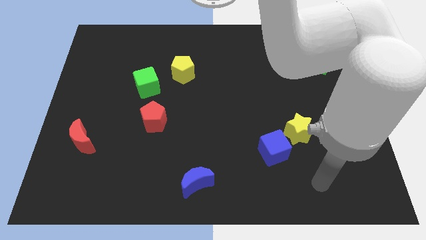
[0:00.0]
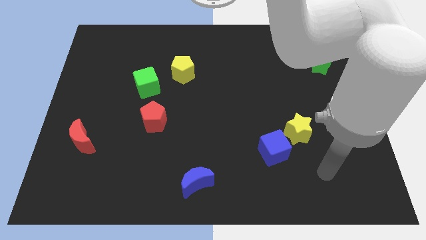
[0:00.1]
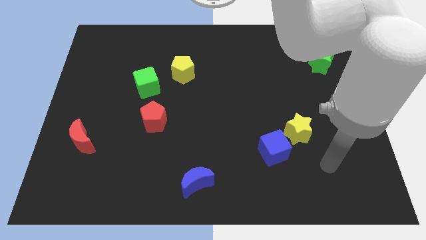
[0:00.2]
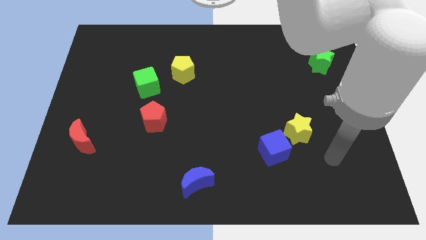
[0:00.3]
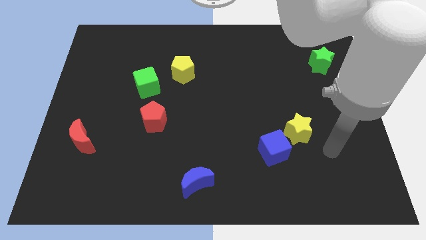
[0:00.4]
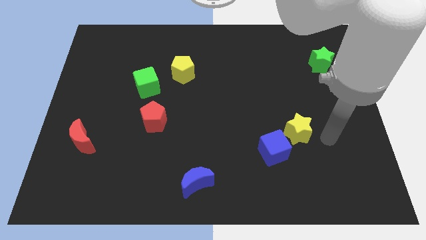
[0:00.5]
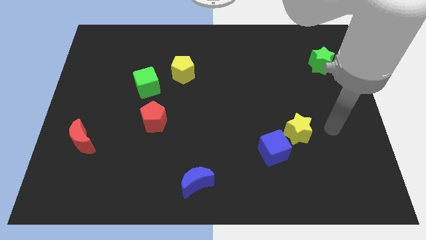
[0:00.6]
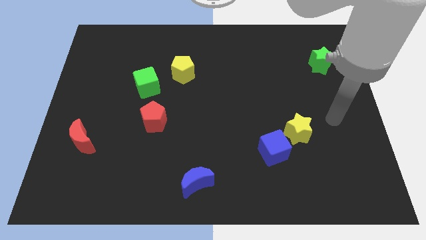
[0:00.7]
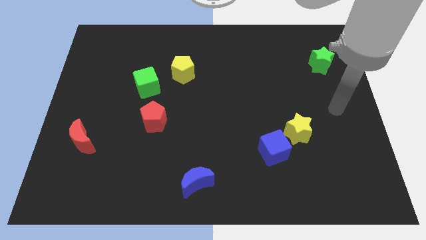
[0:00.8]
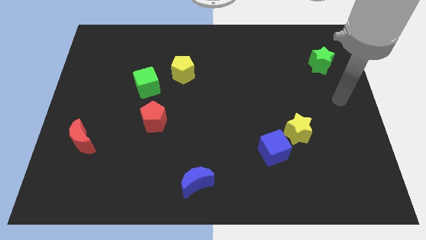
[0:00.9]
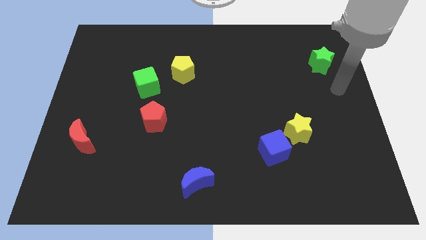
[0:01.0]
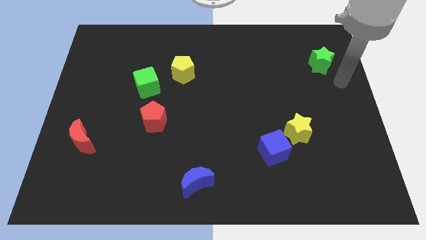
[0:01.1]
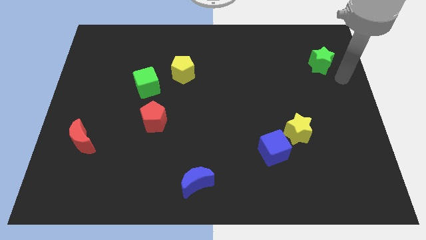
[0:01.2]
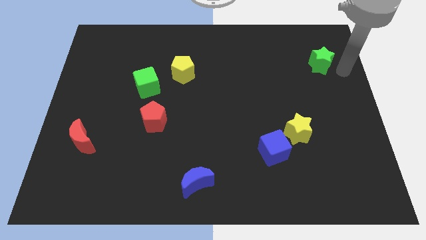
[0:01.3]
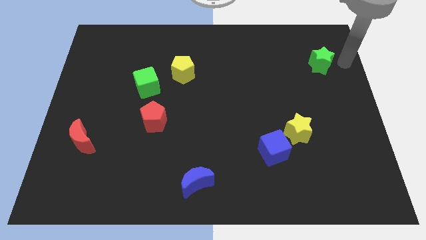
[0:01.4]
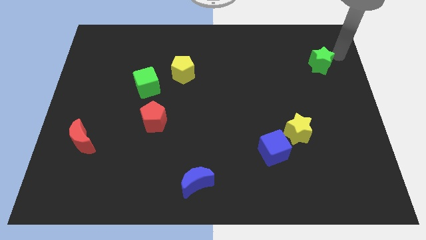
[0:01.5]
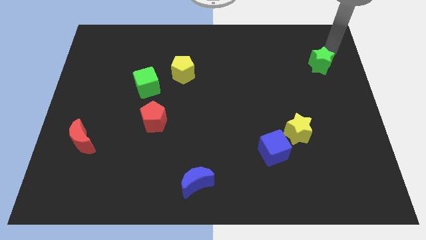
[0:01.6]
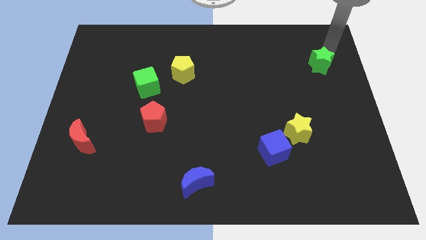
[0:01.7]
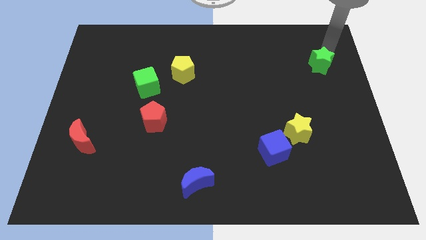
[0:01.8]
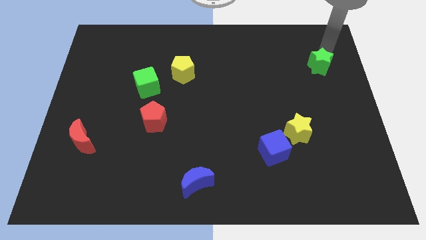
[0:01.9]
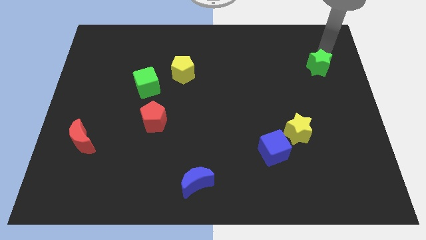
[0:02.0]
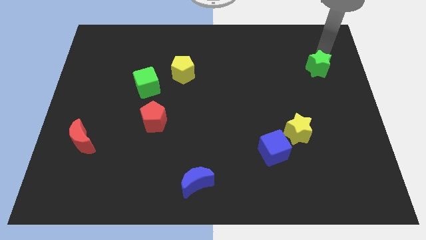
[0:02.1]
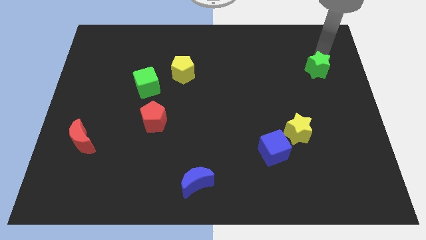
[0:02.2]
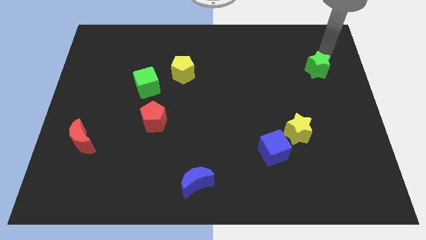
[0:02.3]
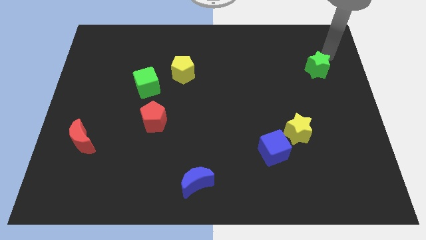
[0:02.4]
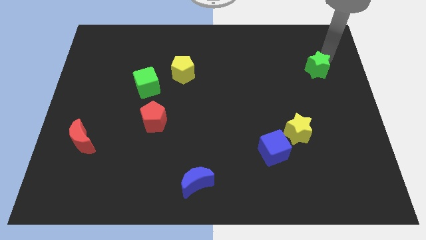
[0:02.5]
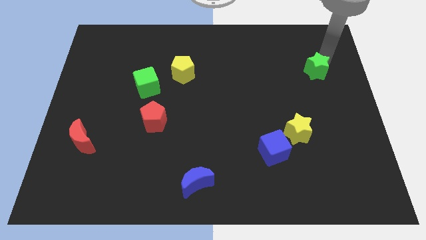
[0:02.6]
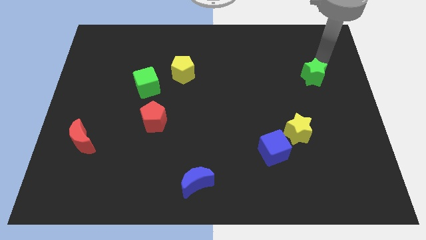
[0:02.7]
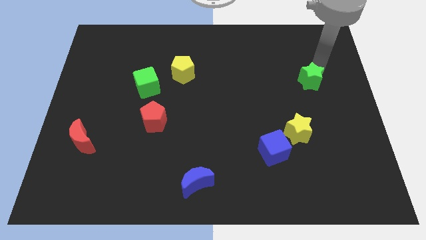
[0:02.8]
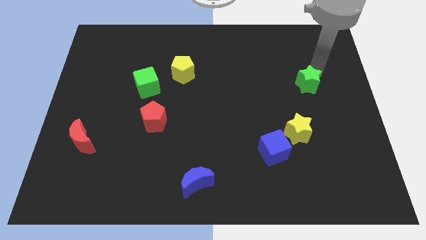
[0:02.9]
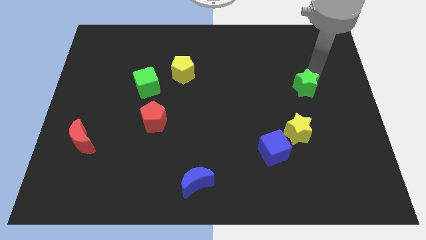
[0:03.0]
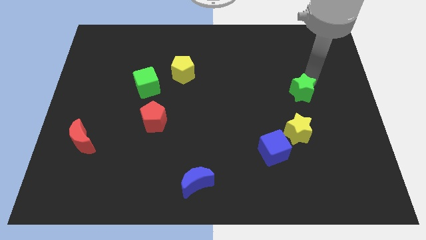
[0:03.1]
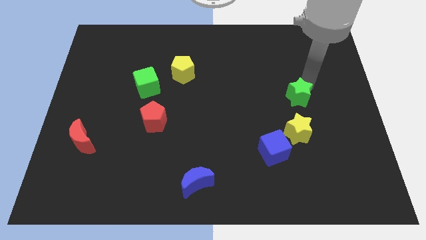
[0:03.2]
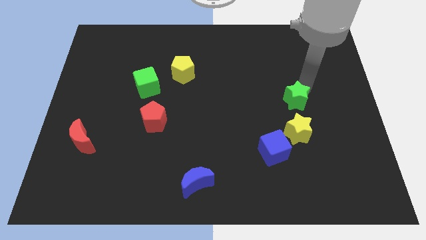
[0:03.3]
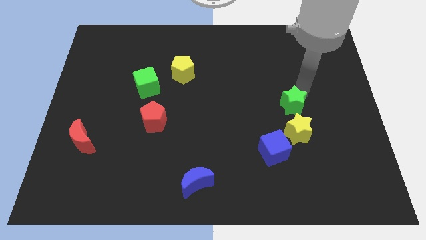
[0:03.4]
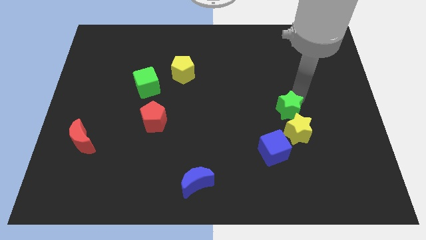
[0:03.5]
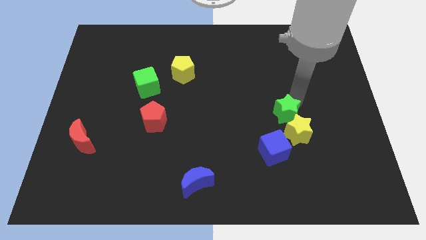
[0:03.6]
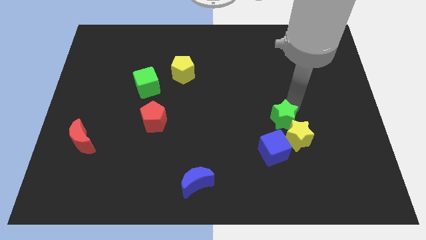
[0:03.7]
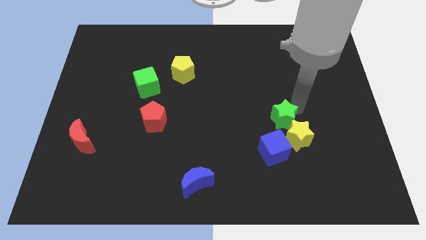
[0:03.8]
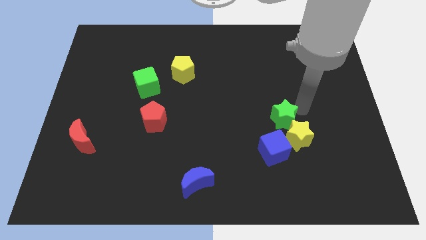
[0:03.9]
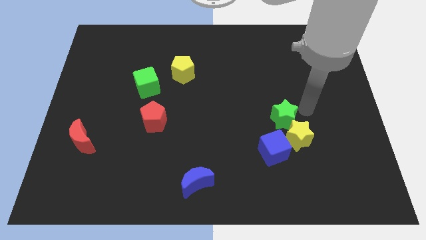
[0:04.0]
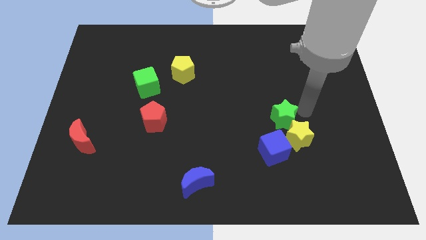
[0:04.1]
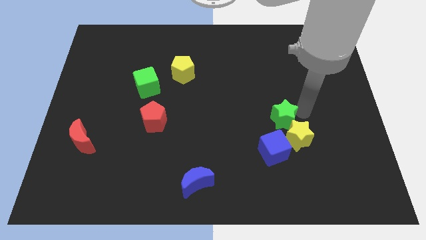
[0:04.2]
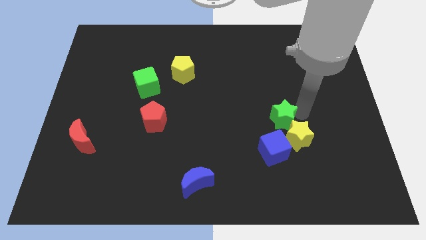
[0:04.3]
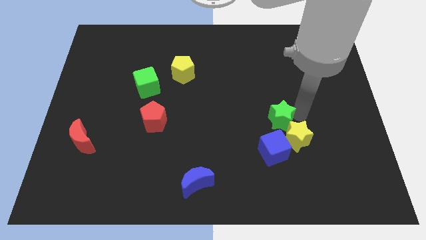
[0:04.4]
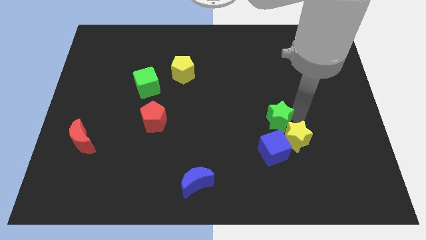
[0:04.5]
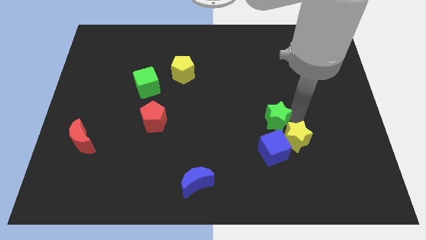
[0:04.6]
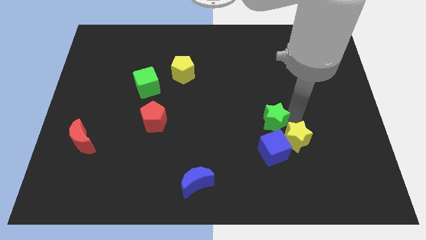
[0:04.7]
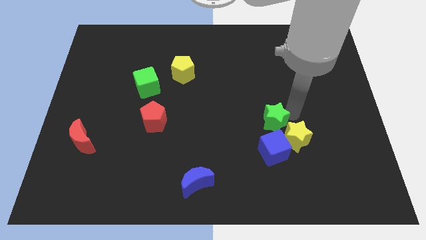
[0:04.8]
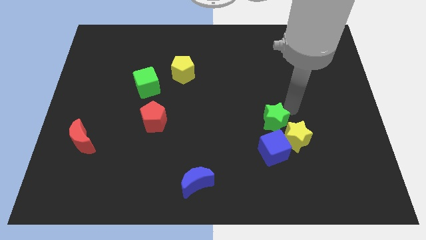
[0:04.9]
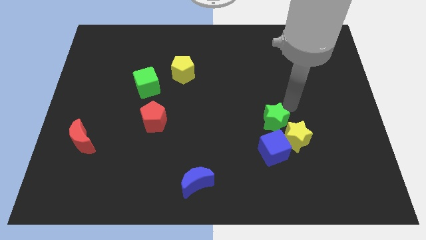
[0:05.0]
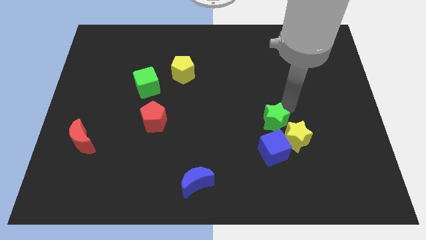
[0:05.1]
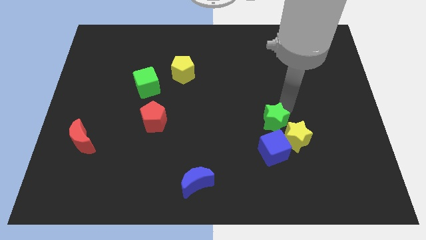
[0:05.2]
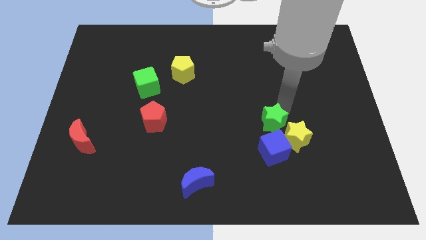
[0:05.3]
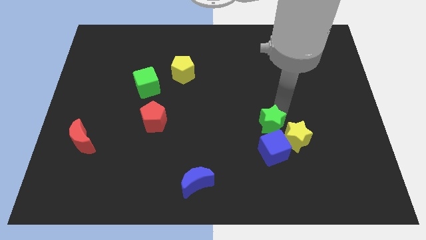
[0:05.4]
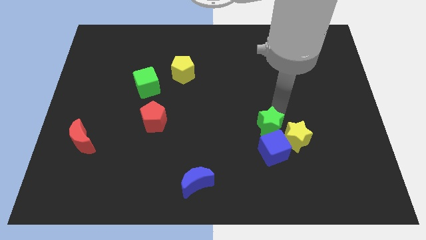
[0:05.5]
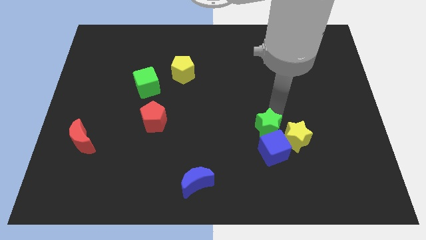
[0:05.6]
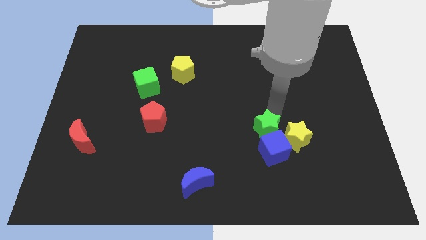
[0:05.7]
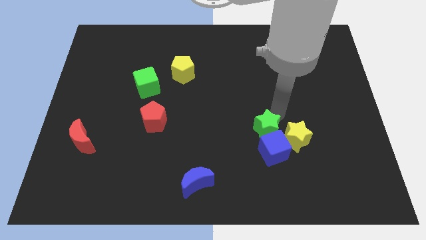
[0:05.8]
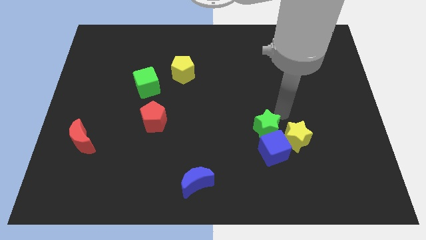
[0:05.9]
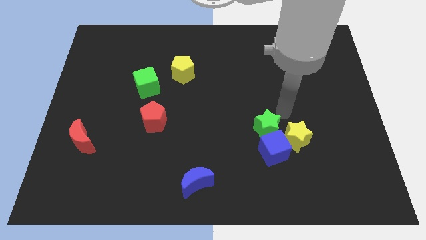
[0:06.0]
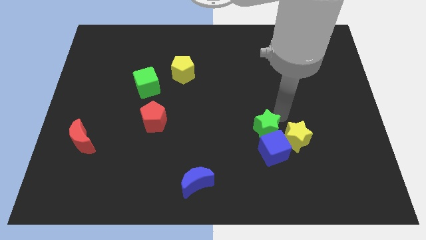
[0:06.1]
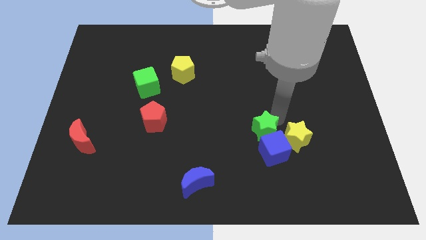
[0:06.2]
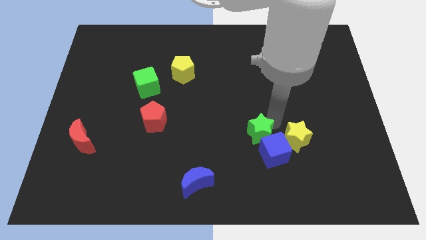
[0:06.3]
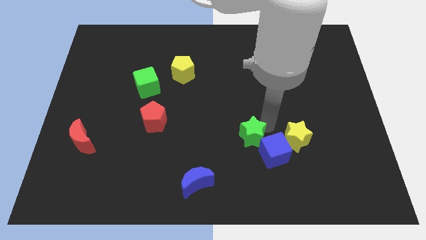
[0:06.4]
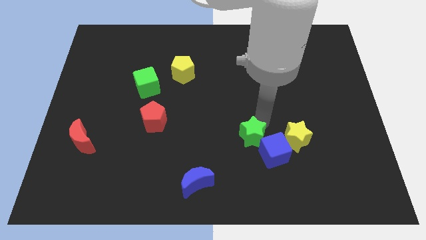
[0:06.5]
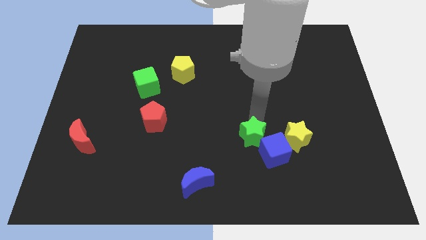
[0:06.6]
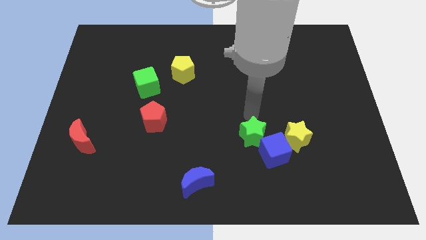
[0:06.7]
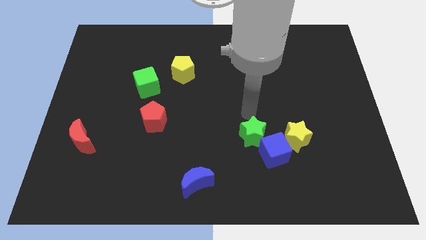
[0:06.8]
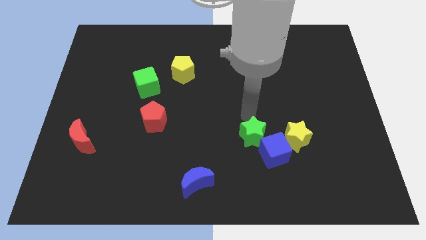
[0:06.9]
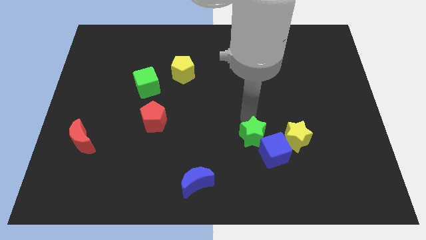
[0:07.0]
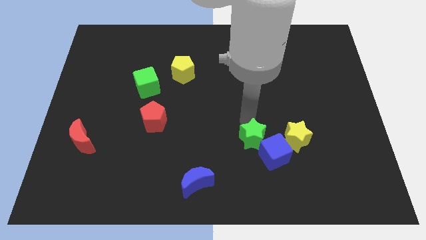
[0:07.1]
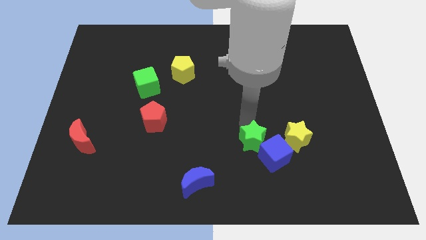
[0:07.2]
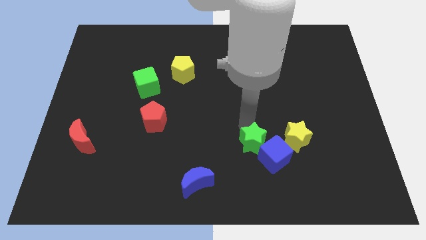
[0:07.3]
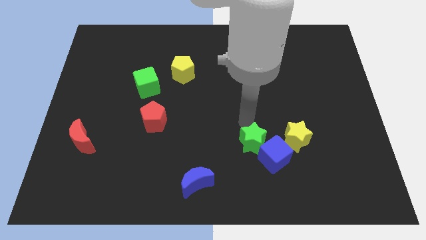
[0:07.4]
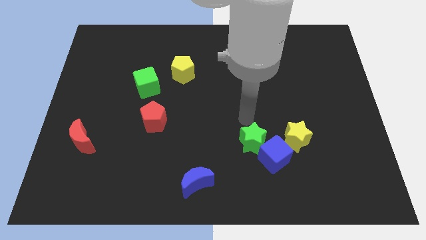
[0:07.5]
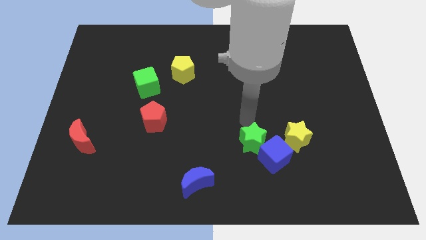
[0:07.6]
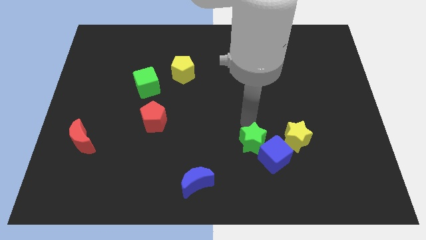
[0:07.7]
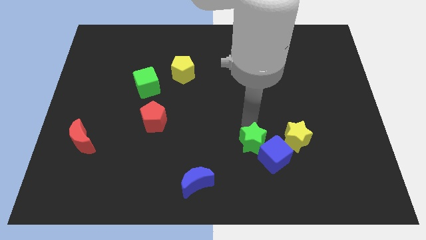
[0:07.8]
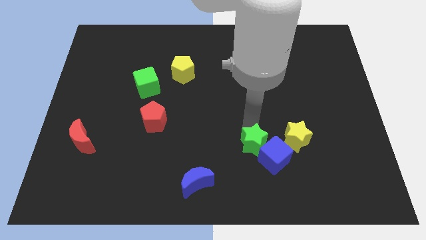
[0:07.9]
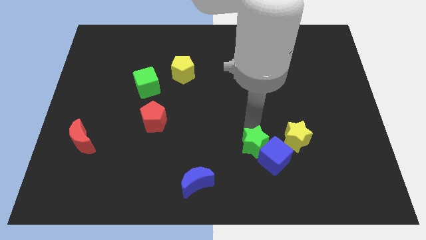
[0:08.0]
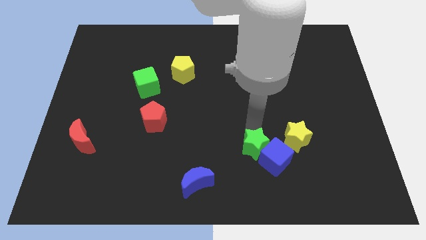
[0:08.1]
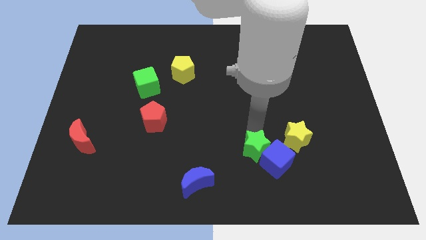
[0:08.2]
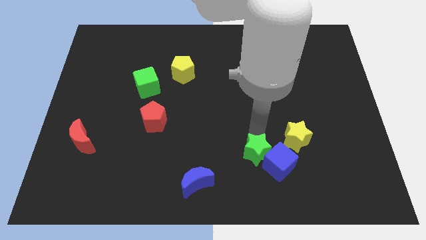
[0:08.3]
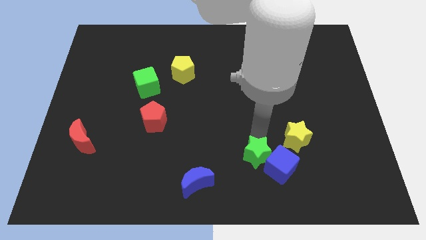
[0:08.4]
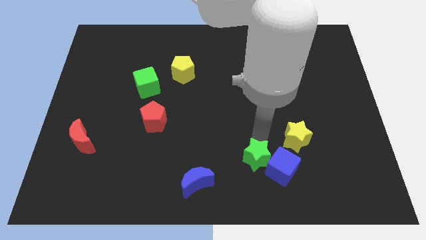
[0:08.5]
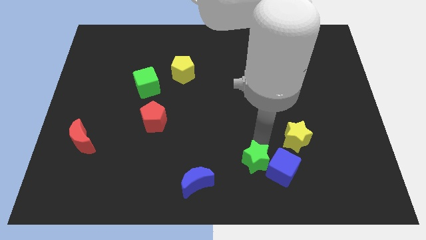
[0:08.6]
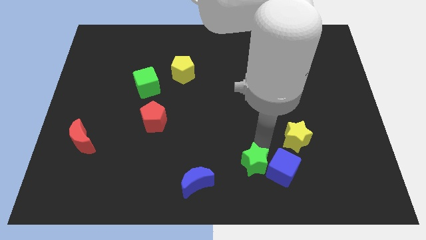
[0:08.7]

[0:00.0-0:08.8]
push the green star to the right side of the blue moon
